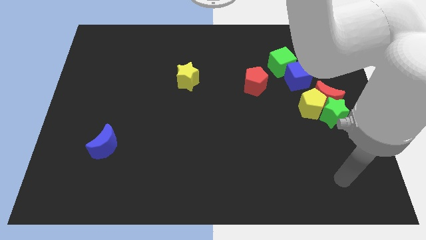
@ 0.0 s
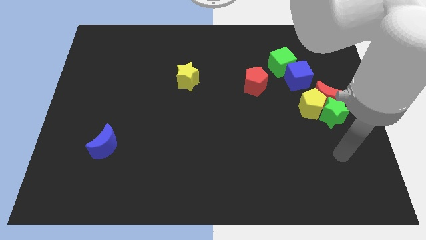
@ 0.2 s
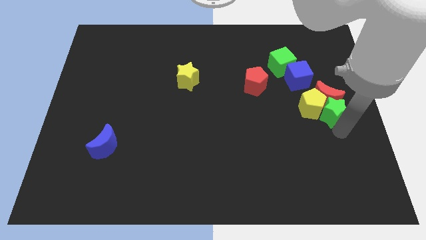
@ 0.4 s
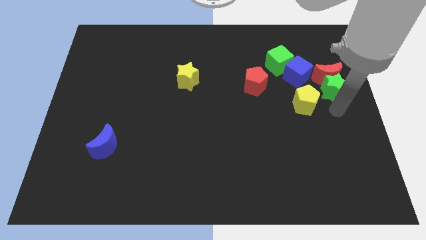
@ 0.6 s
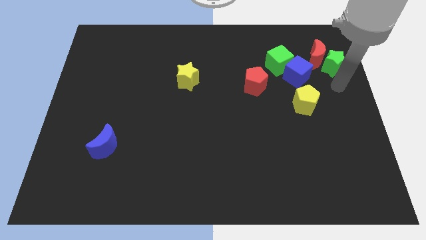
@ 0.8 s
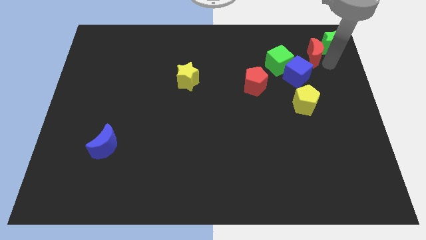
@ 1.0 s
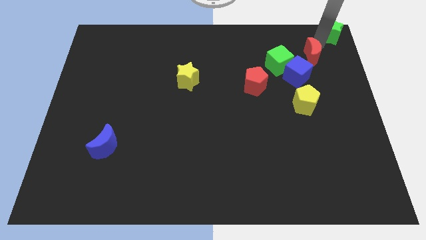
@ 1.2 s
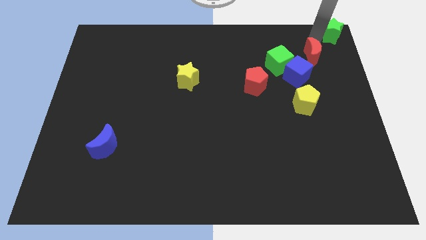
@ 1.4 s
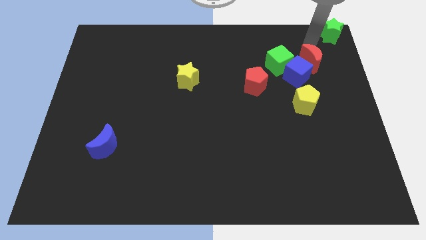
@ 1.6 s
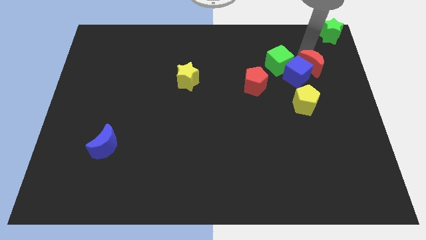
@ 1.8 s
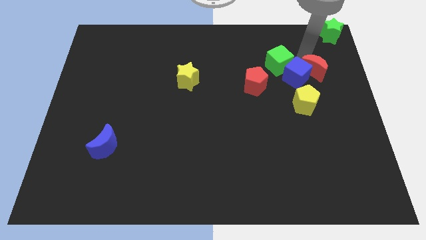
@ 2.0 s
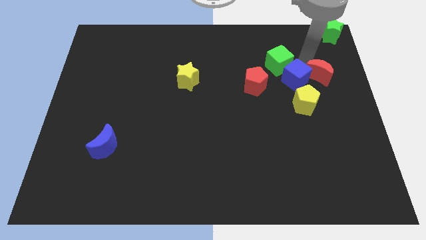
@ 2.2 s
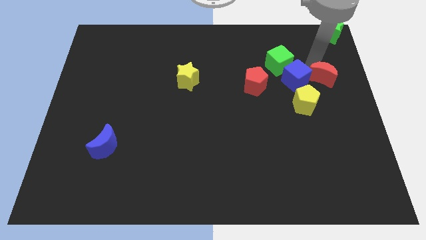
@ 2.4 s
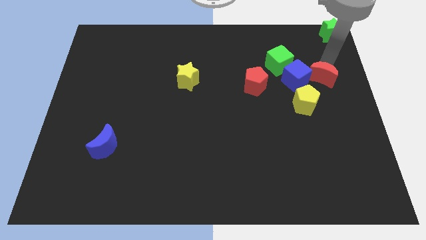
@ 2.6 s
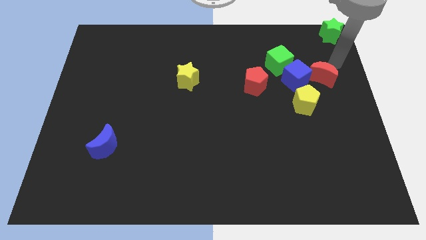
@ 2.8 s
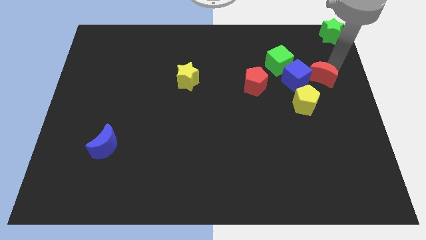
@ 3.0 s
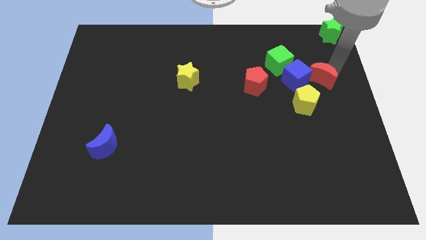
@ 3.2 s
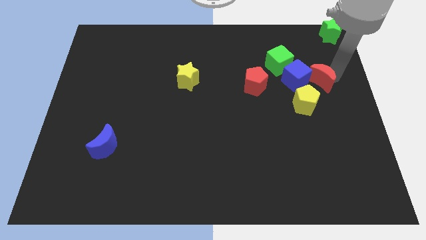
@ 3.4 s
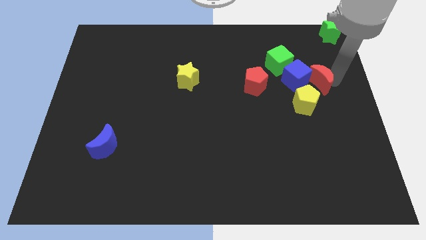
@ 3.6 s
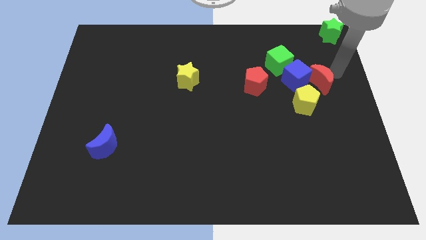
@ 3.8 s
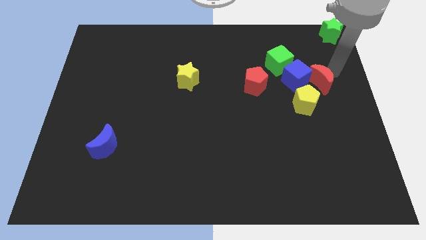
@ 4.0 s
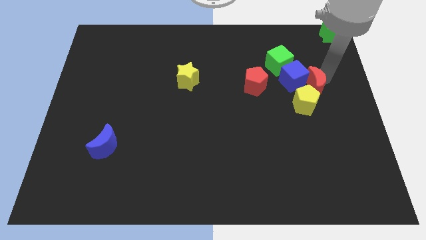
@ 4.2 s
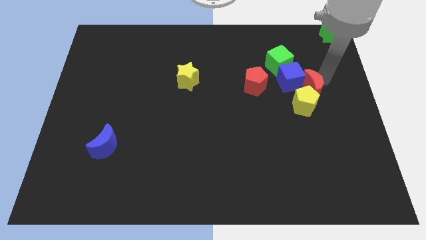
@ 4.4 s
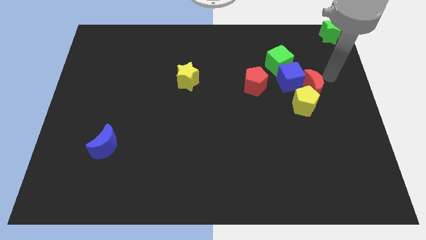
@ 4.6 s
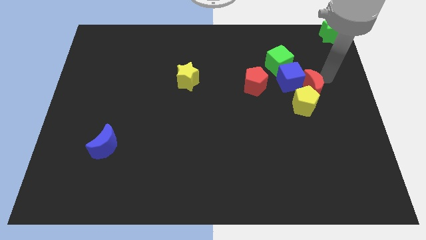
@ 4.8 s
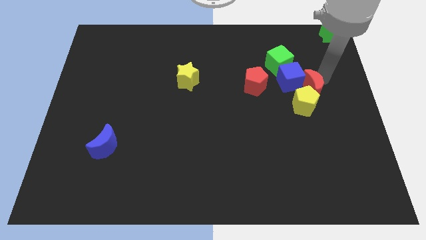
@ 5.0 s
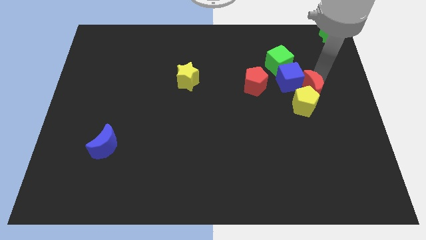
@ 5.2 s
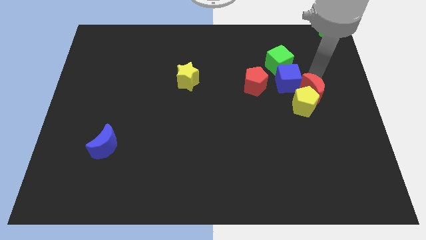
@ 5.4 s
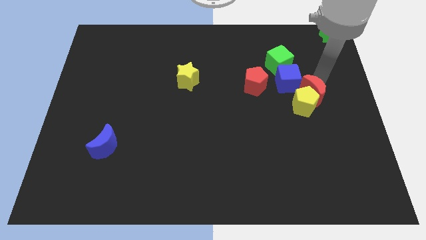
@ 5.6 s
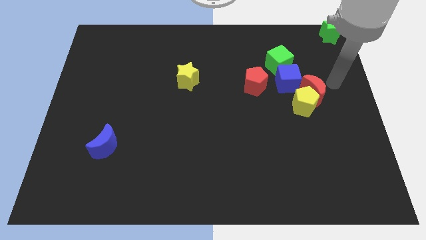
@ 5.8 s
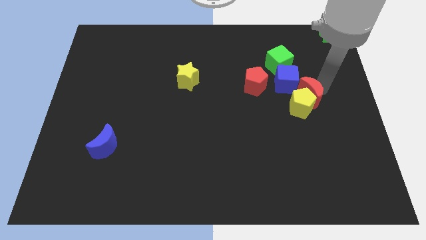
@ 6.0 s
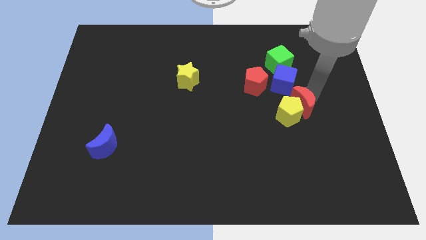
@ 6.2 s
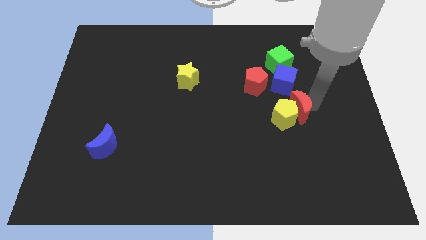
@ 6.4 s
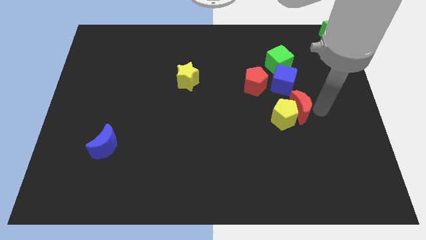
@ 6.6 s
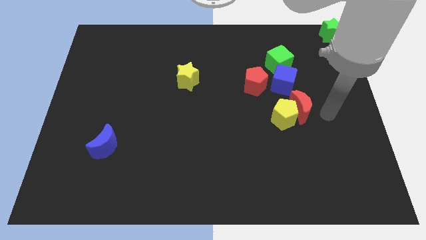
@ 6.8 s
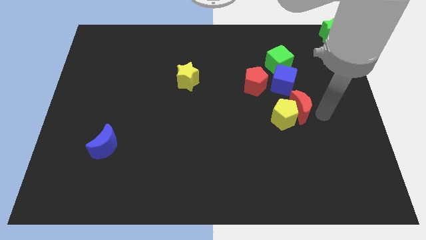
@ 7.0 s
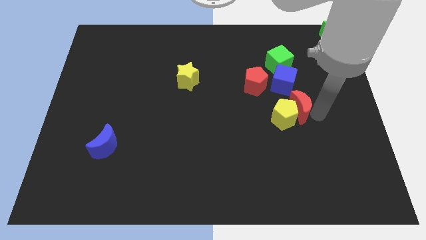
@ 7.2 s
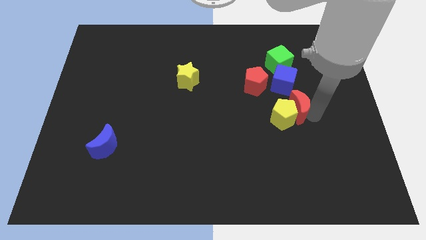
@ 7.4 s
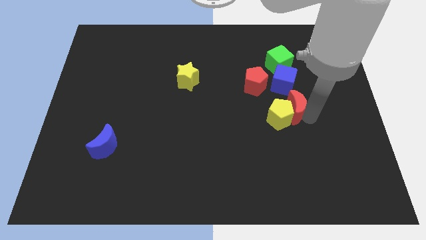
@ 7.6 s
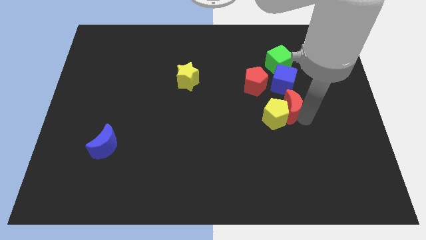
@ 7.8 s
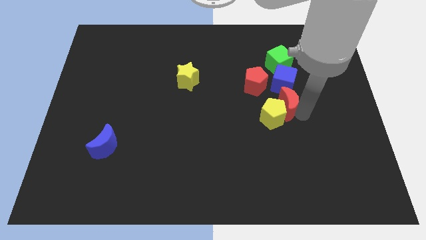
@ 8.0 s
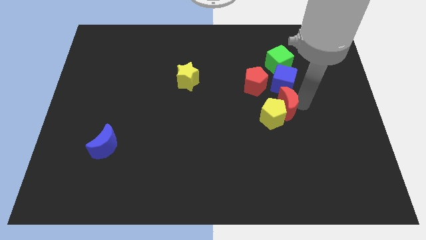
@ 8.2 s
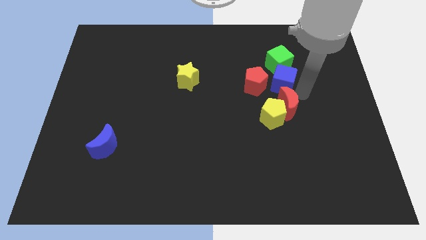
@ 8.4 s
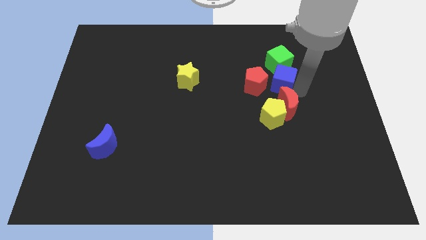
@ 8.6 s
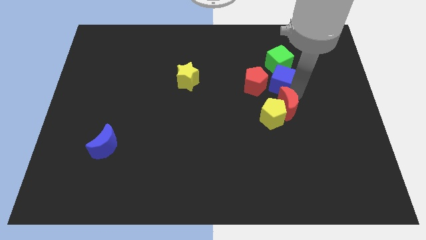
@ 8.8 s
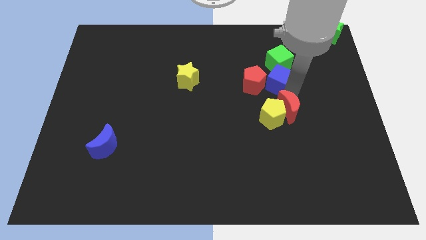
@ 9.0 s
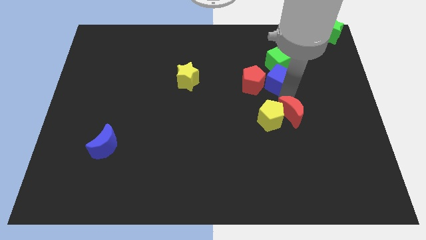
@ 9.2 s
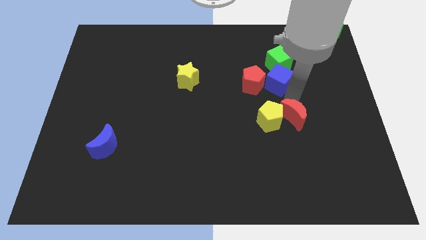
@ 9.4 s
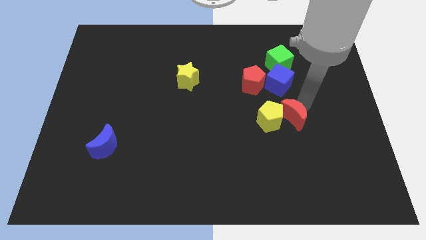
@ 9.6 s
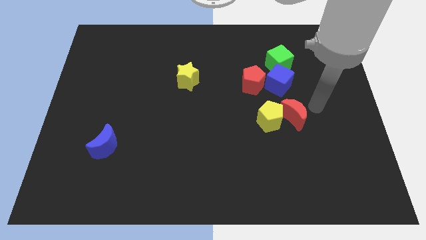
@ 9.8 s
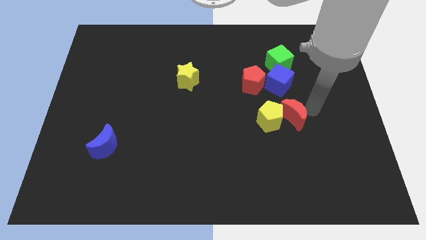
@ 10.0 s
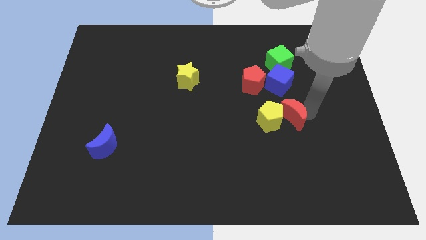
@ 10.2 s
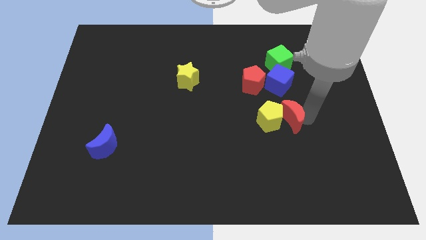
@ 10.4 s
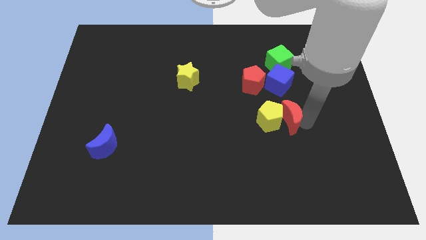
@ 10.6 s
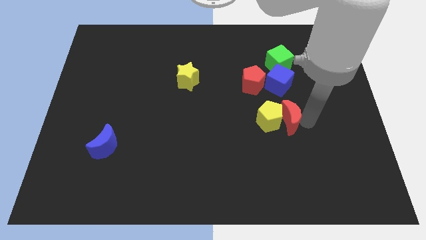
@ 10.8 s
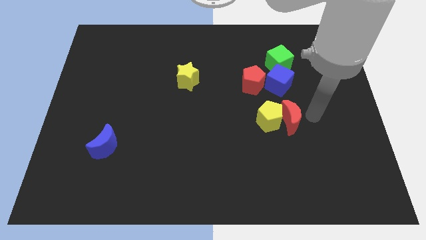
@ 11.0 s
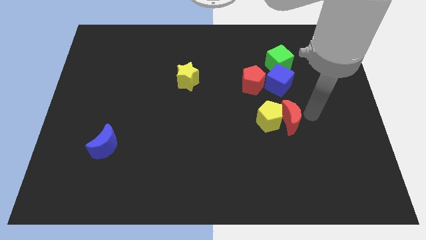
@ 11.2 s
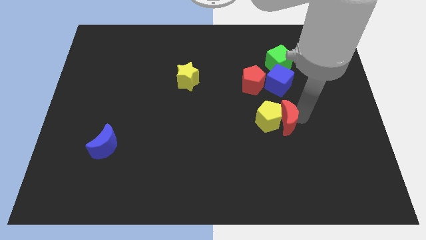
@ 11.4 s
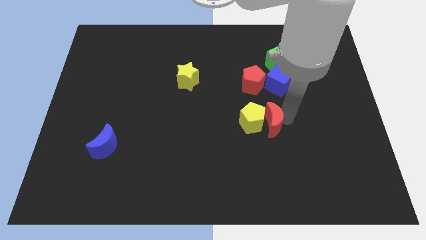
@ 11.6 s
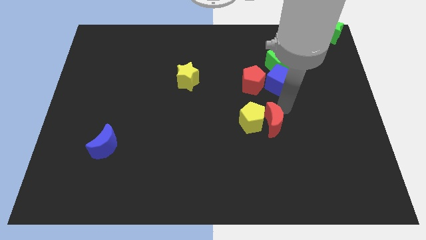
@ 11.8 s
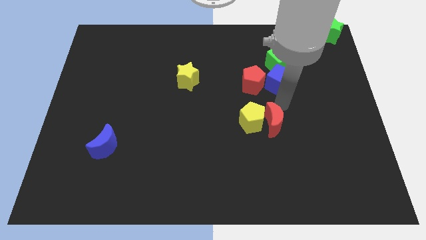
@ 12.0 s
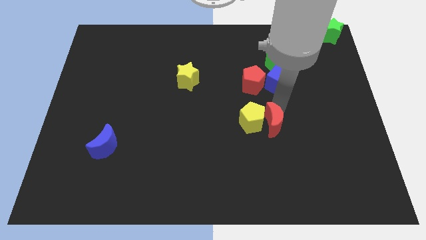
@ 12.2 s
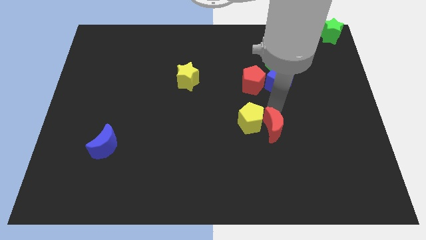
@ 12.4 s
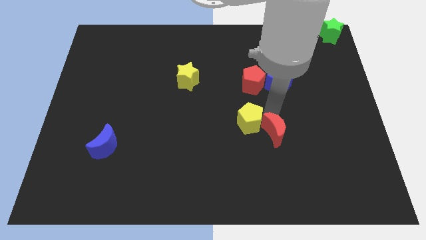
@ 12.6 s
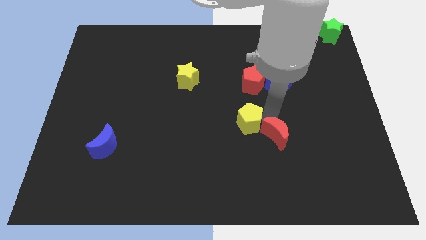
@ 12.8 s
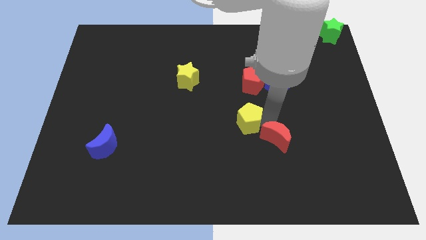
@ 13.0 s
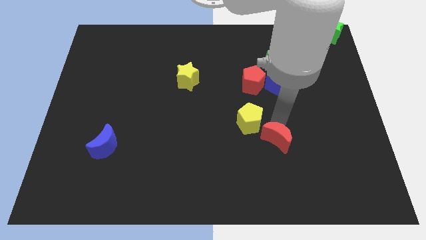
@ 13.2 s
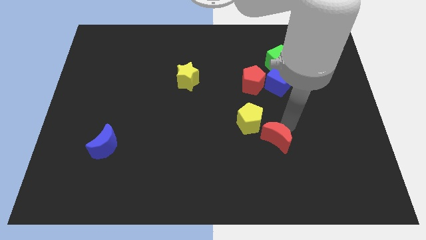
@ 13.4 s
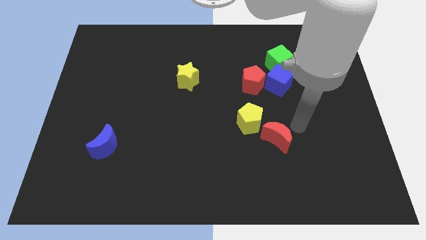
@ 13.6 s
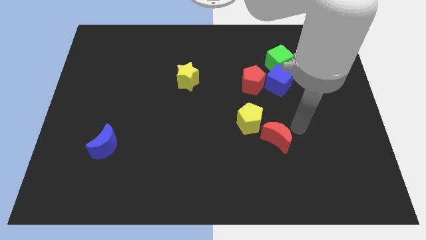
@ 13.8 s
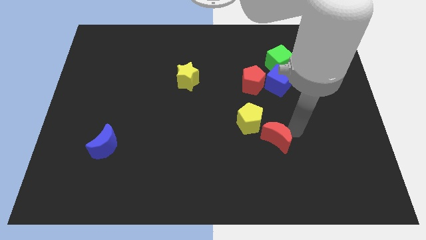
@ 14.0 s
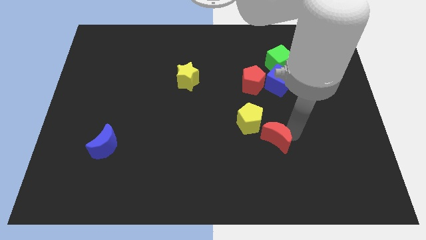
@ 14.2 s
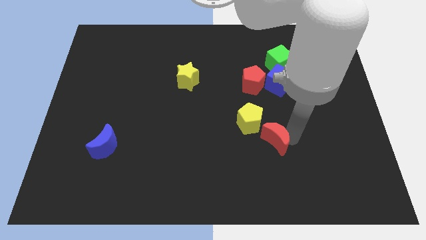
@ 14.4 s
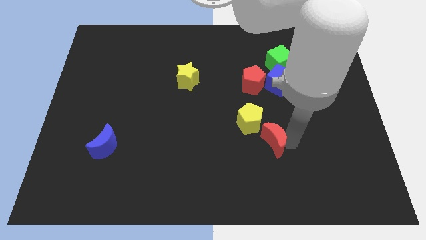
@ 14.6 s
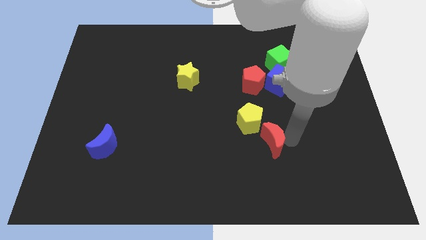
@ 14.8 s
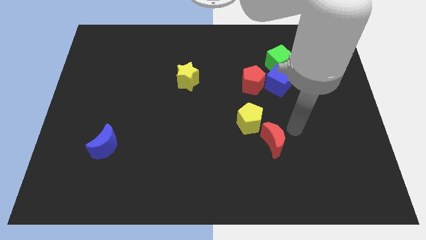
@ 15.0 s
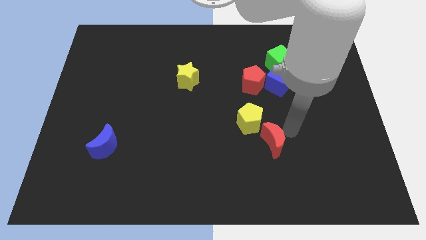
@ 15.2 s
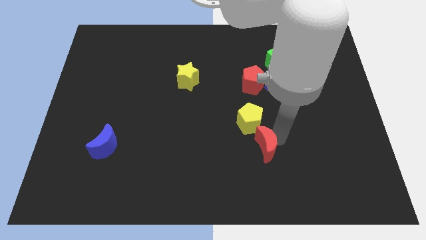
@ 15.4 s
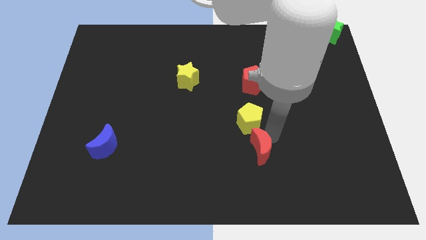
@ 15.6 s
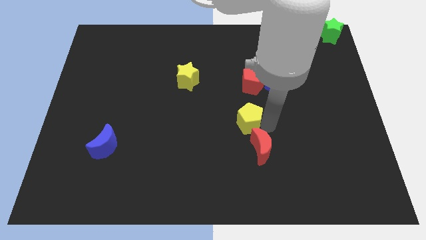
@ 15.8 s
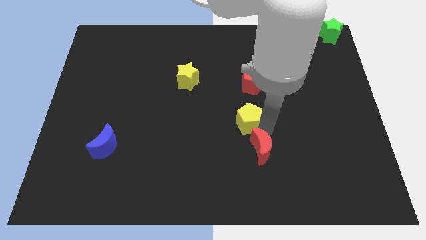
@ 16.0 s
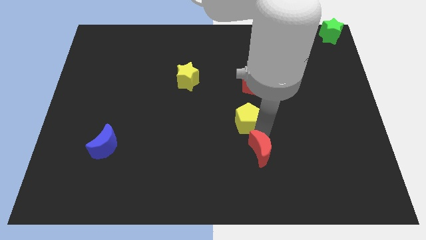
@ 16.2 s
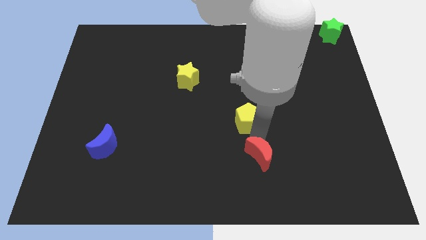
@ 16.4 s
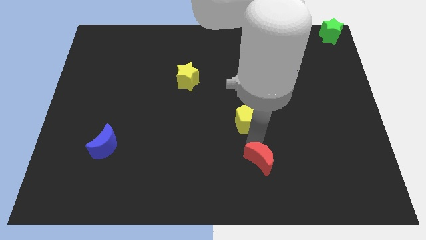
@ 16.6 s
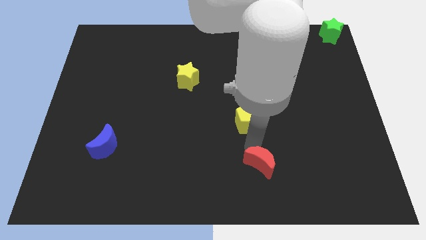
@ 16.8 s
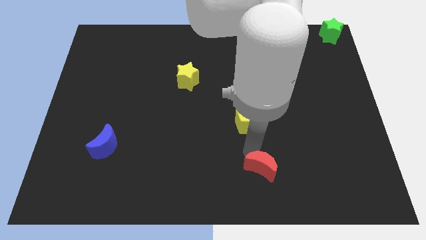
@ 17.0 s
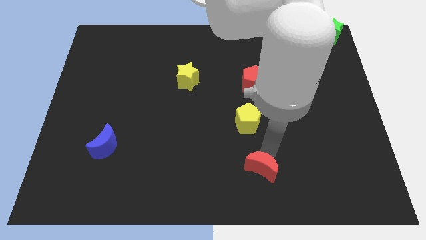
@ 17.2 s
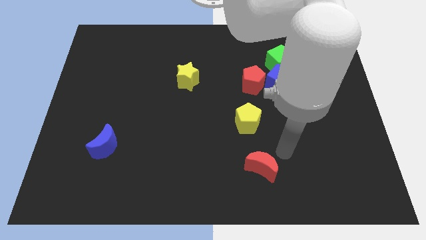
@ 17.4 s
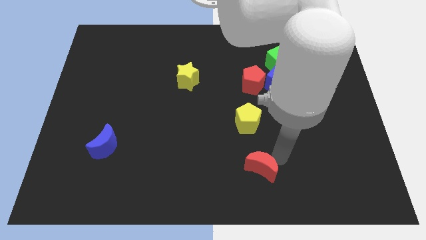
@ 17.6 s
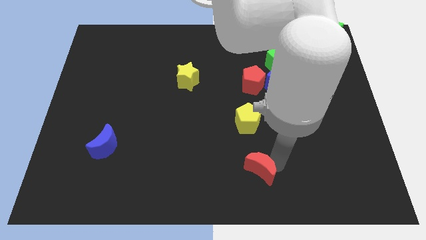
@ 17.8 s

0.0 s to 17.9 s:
move the red moon to the bottom
